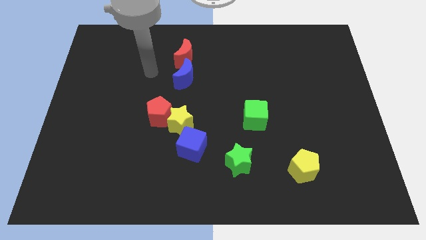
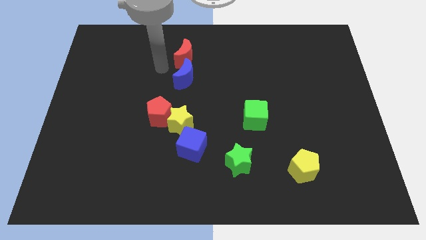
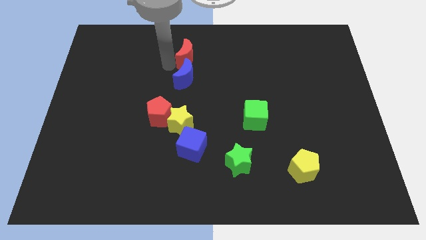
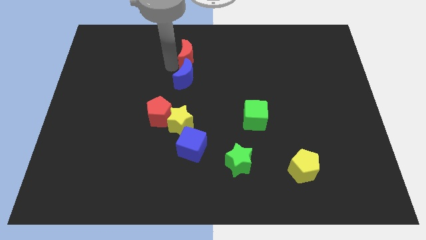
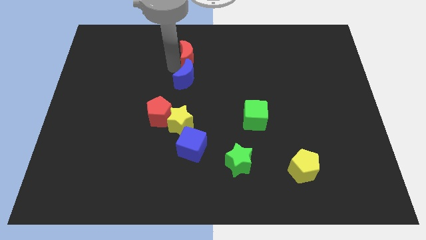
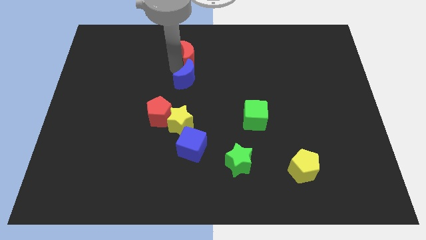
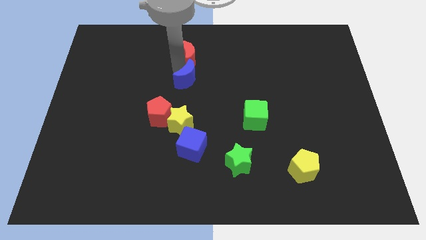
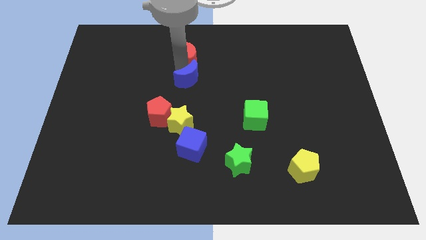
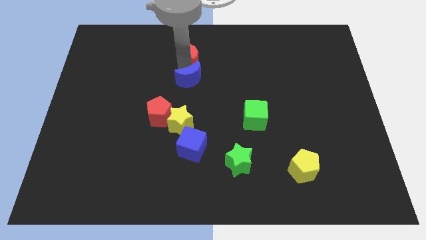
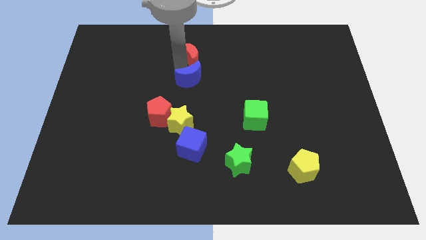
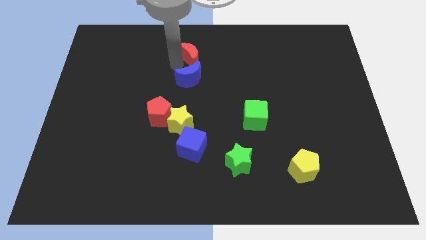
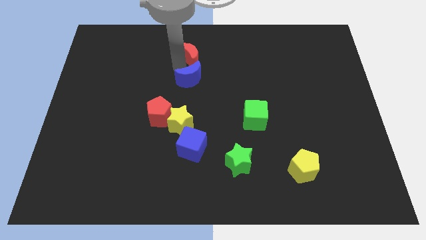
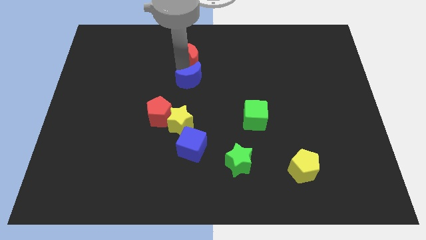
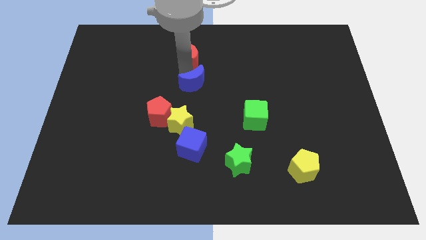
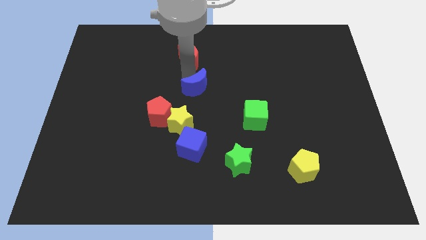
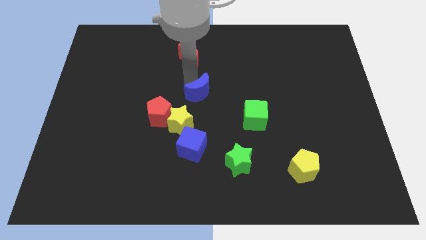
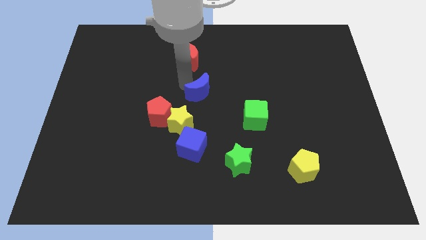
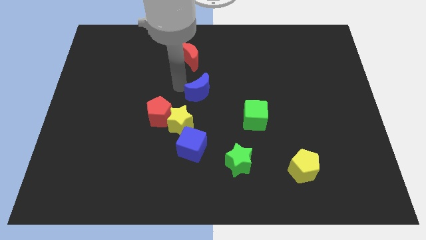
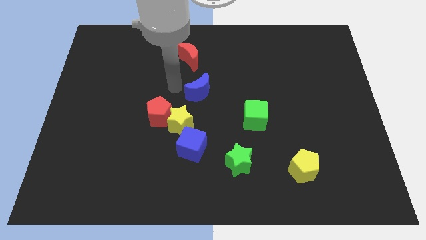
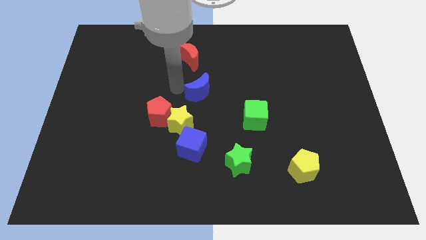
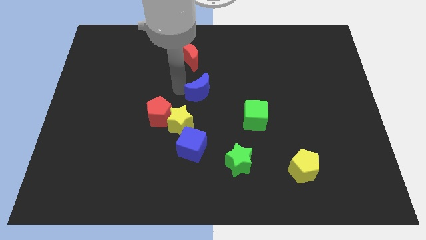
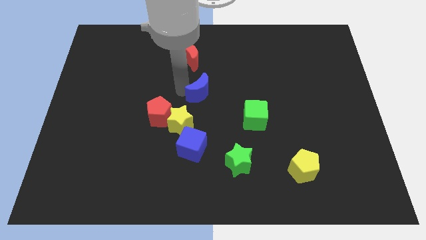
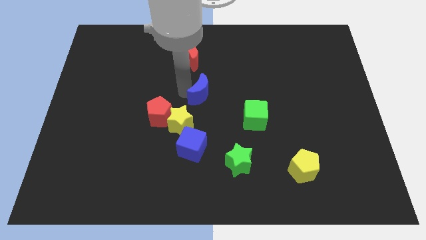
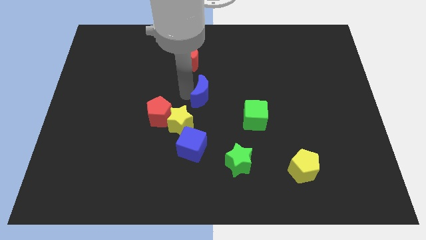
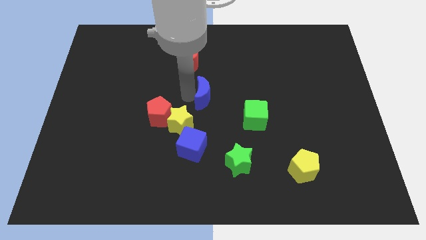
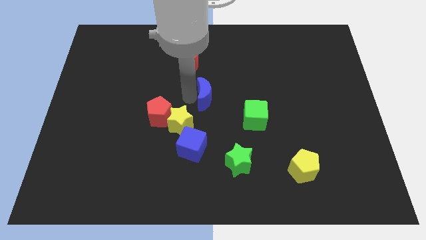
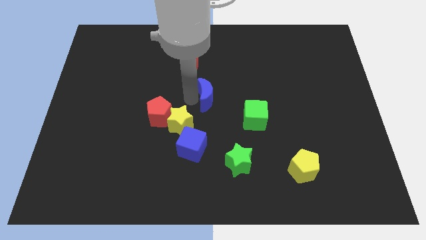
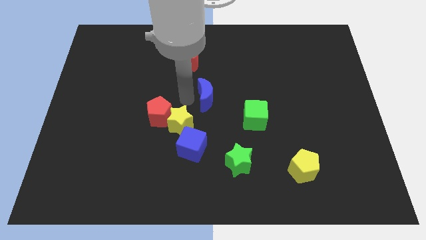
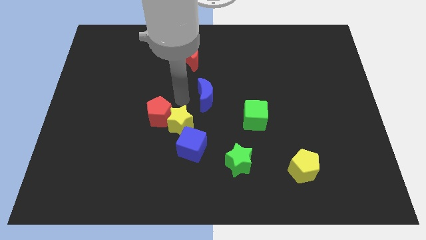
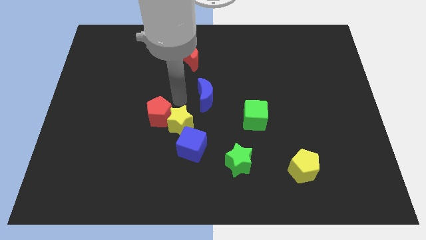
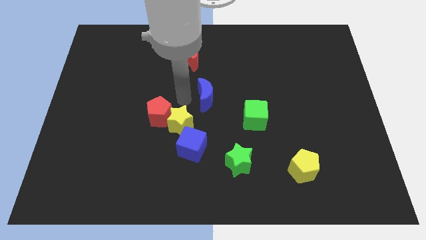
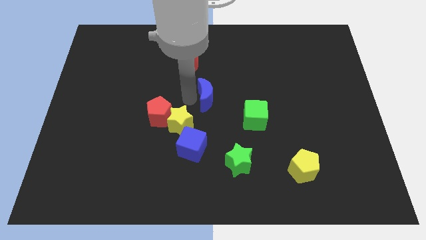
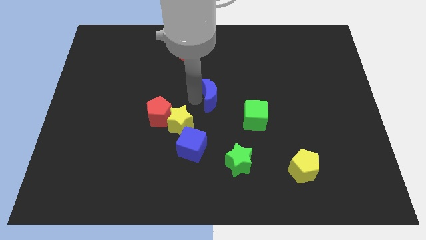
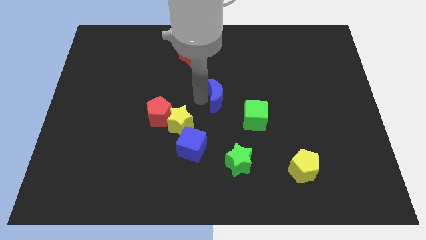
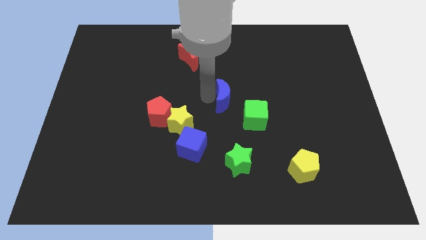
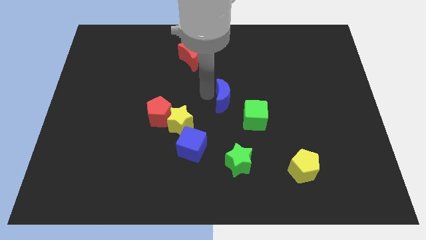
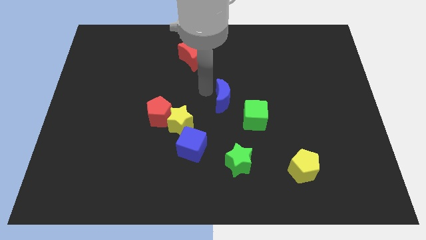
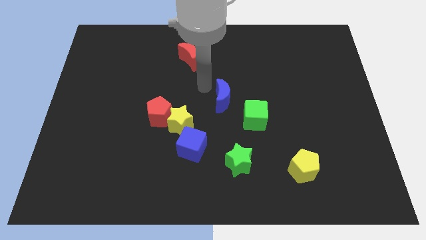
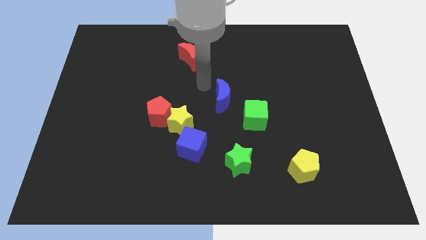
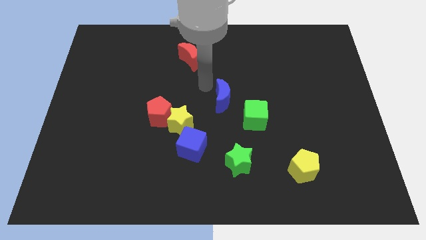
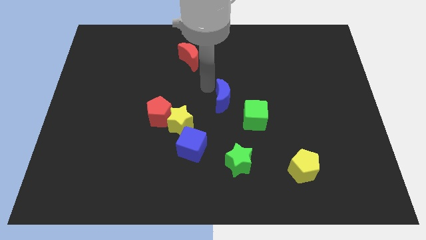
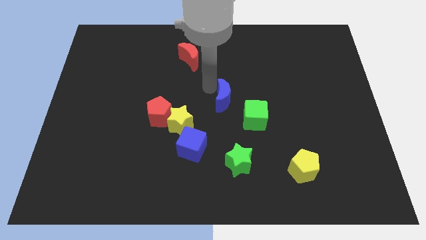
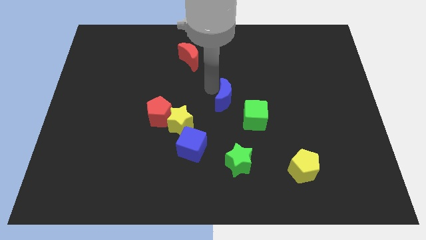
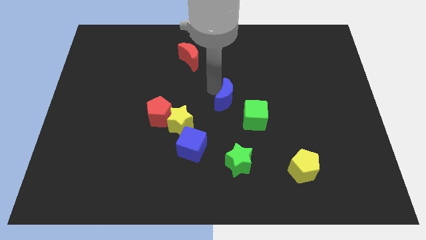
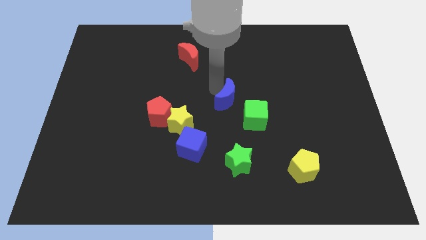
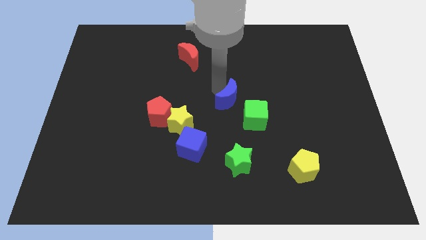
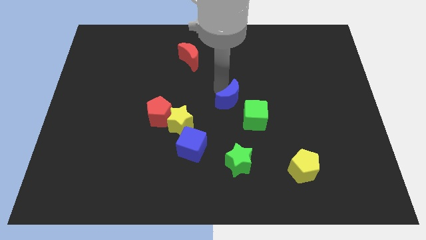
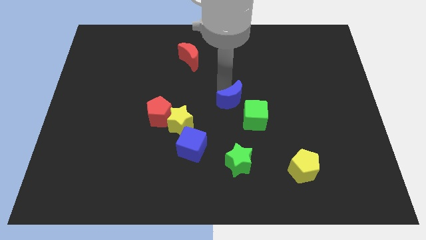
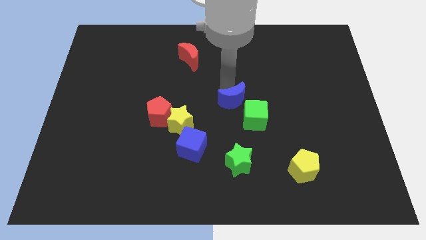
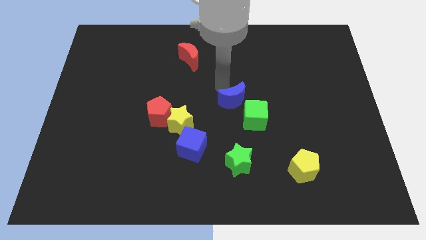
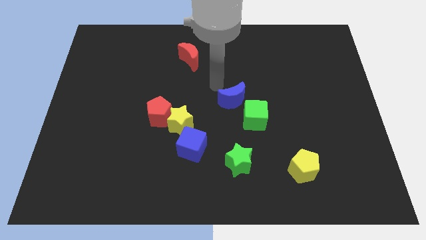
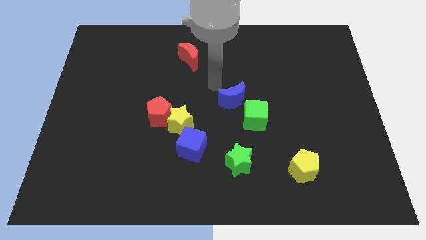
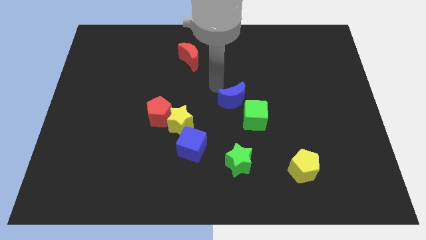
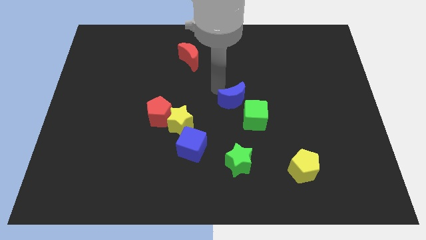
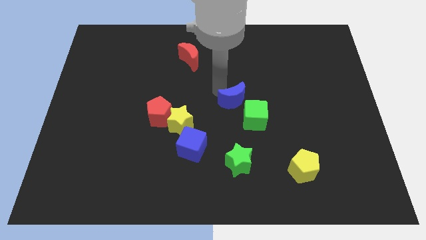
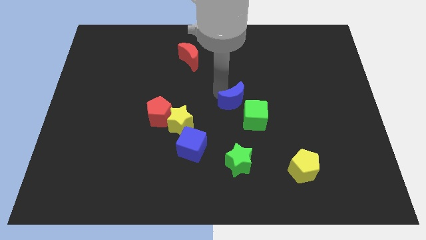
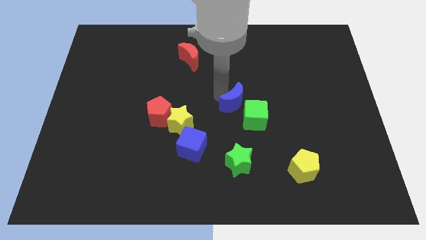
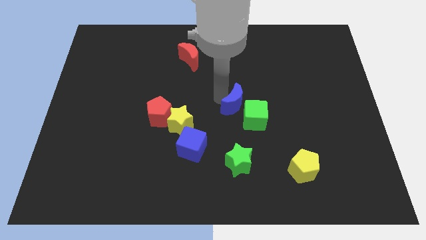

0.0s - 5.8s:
put the blue moon towards the green cube

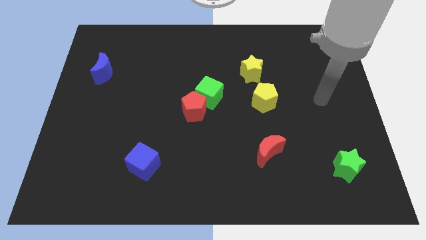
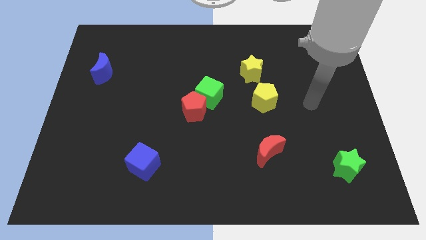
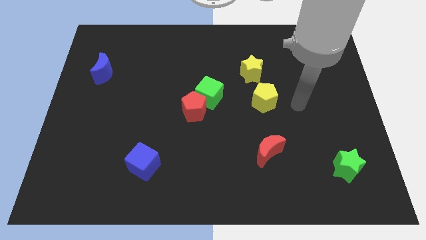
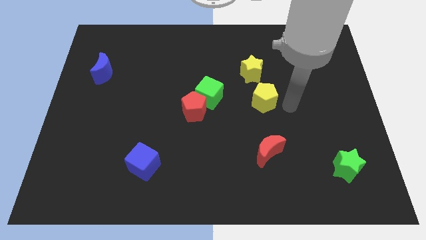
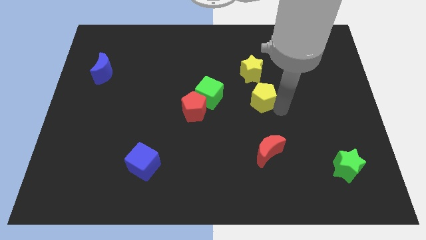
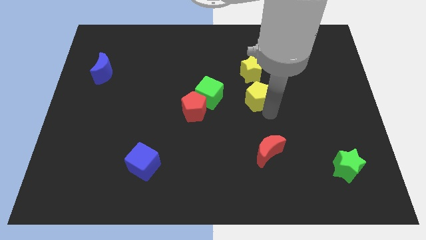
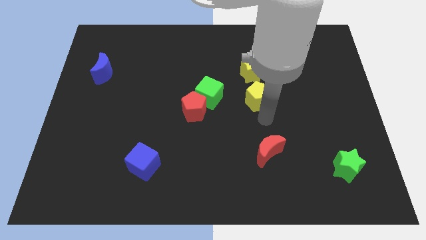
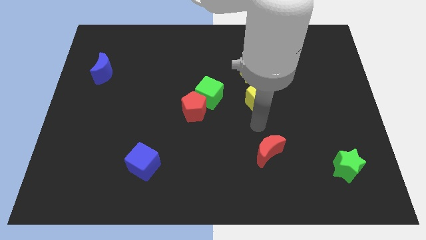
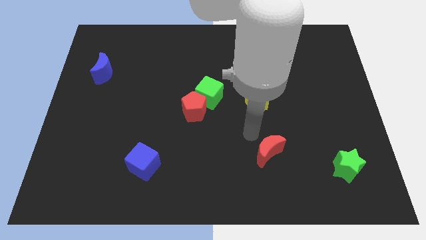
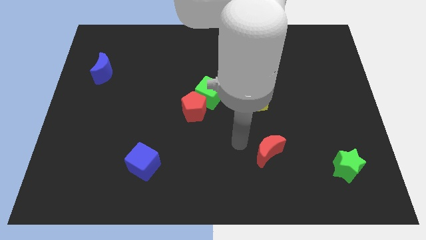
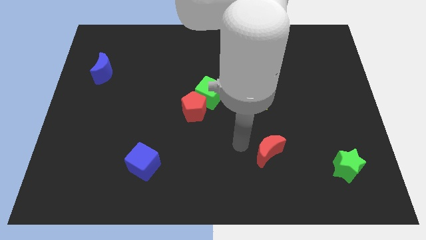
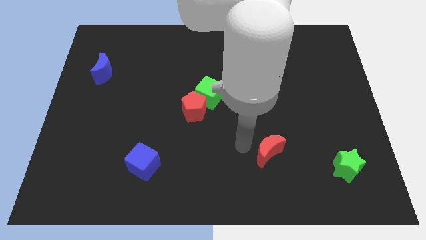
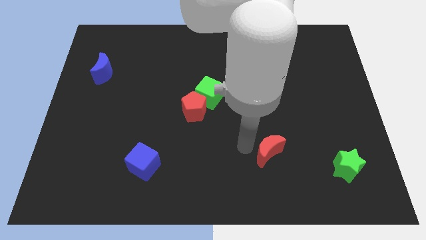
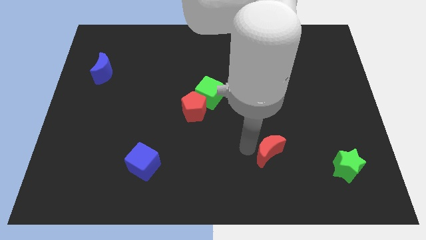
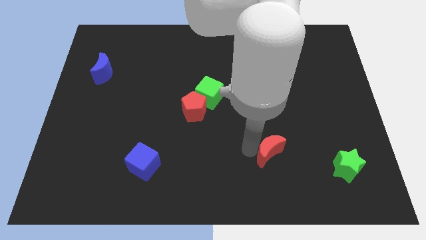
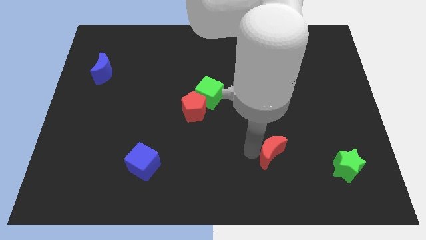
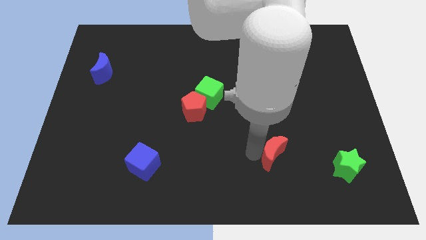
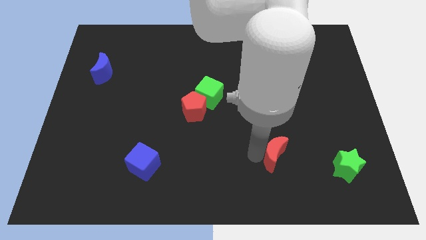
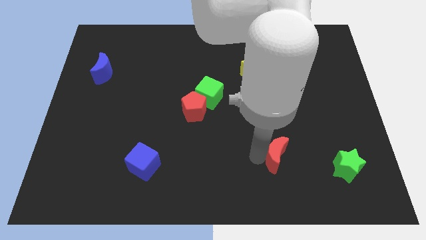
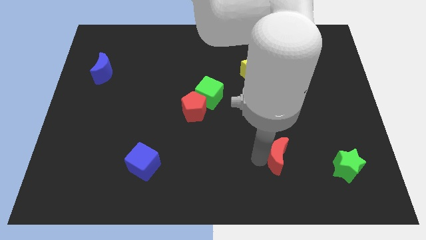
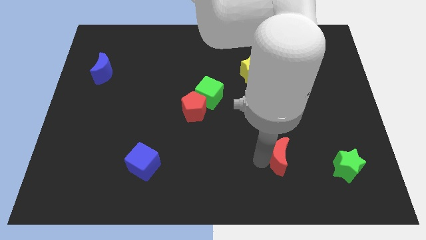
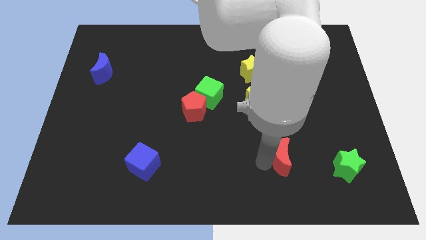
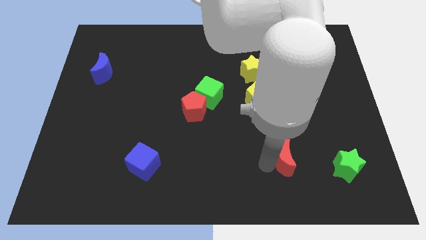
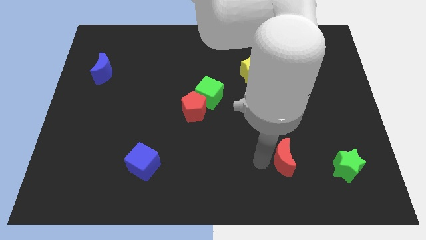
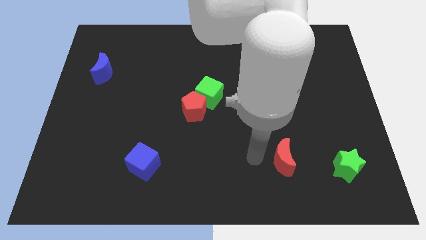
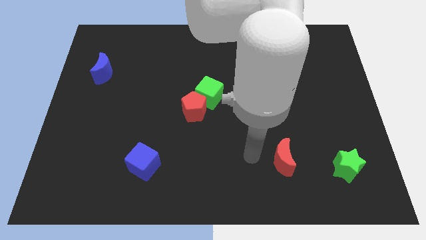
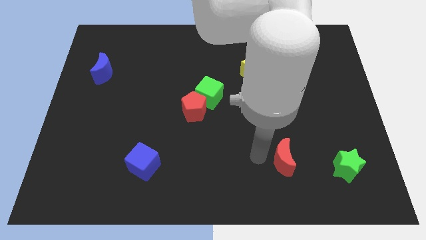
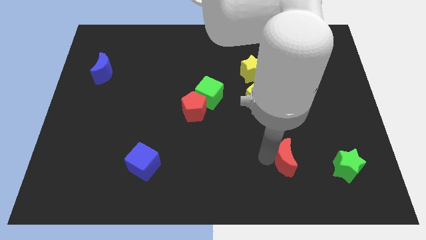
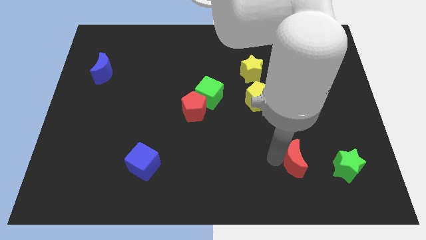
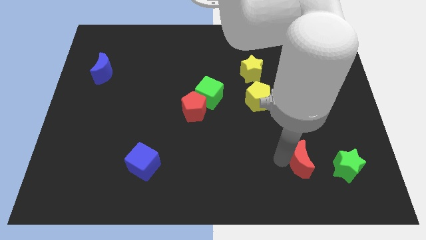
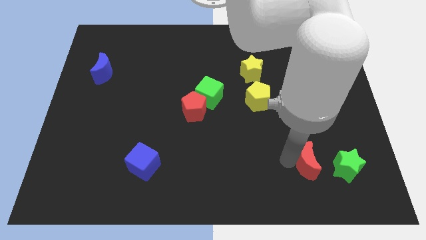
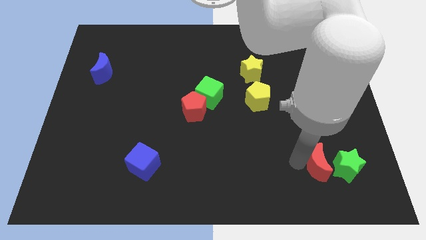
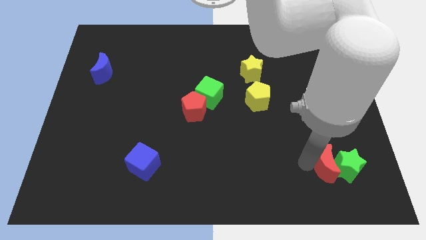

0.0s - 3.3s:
push the red moon towards the green star
